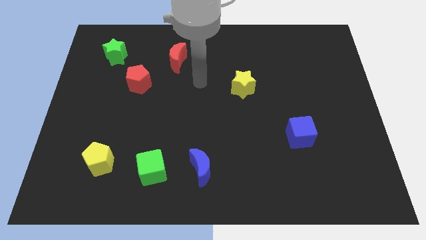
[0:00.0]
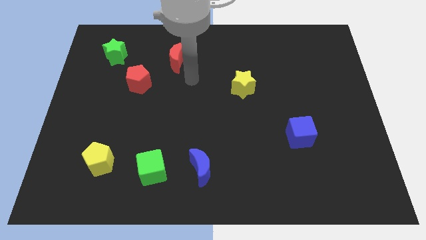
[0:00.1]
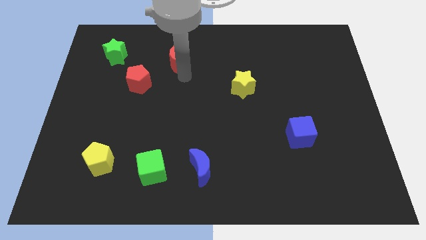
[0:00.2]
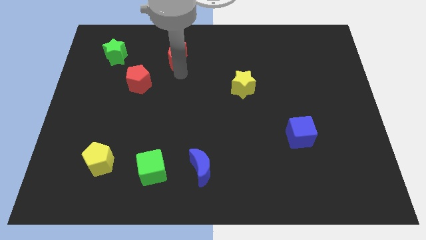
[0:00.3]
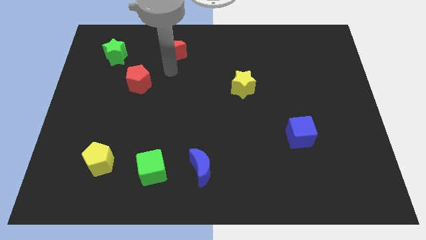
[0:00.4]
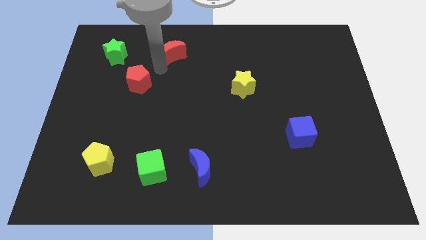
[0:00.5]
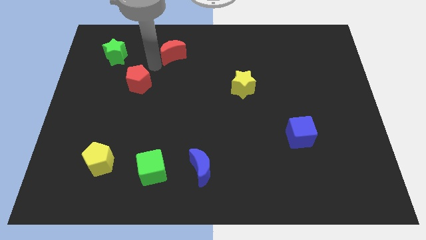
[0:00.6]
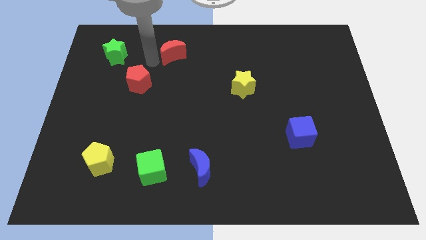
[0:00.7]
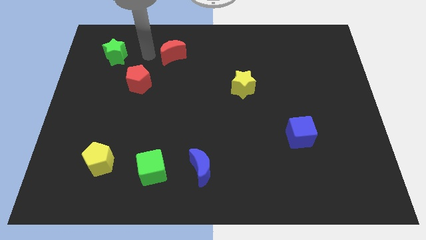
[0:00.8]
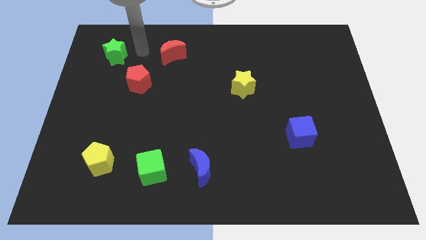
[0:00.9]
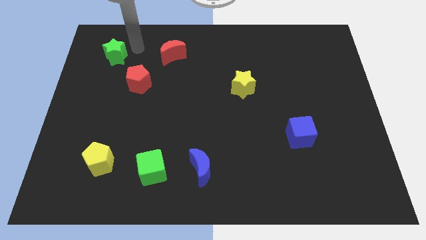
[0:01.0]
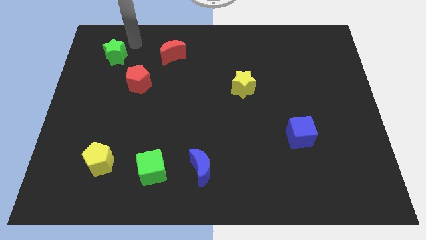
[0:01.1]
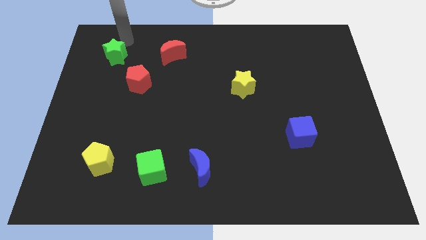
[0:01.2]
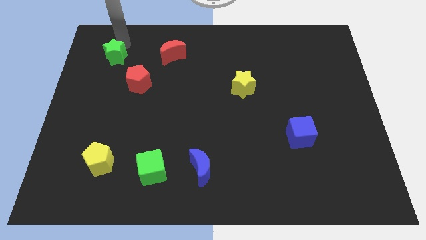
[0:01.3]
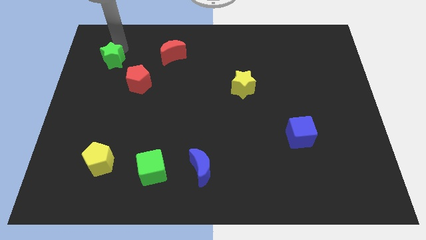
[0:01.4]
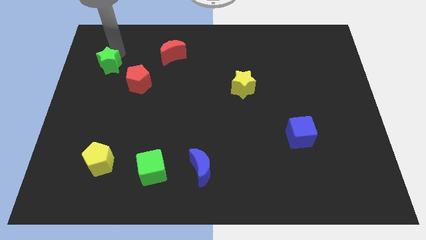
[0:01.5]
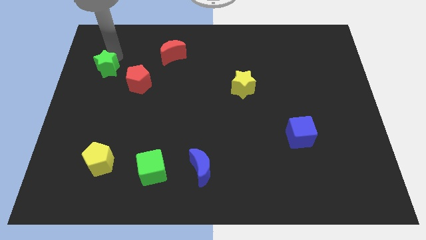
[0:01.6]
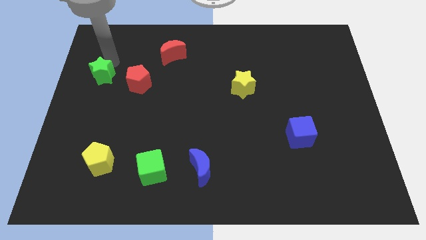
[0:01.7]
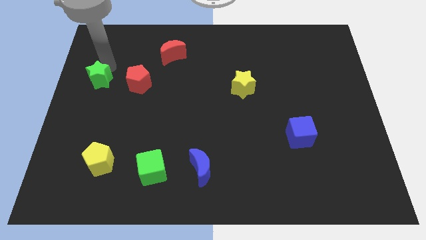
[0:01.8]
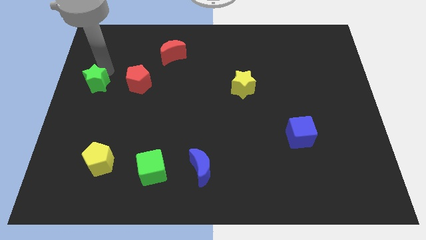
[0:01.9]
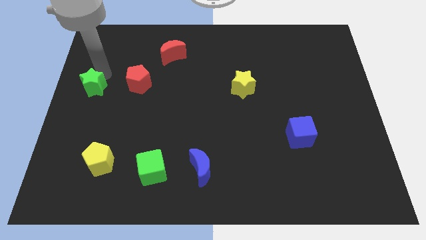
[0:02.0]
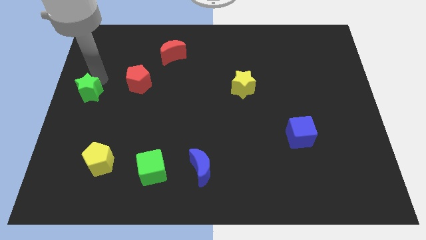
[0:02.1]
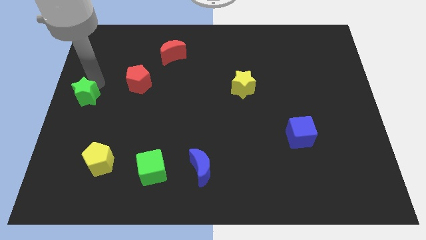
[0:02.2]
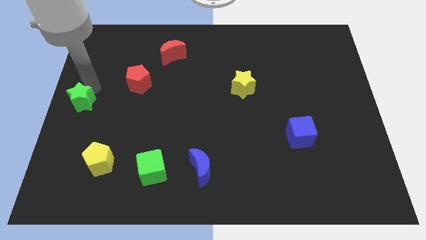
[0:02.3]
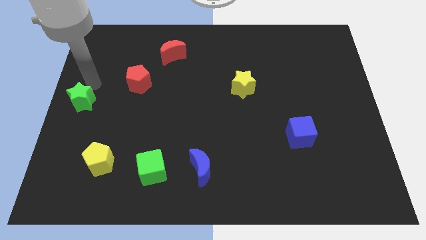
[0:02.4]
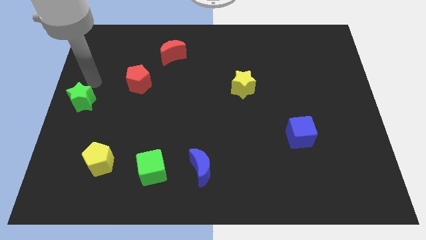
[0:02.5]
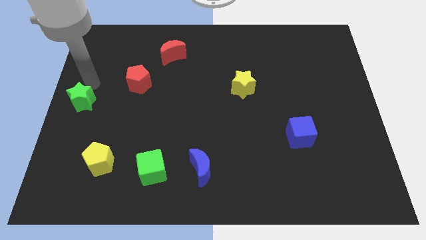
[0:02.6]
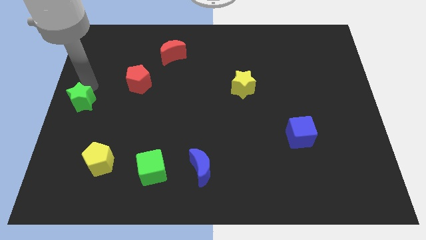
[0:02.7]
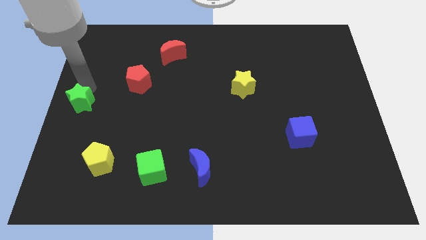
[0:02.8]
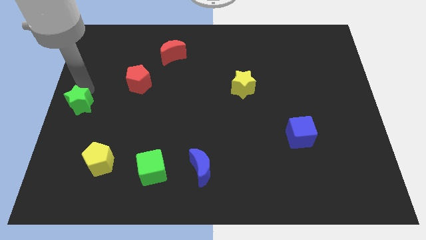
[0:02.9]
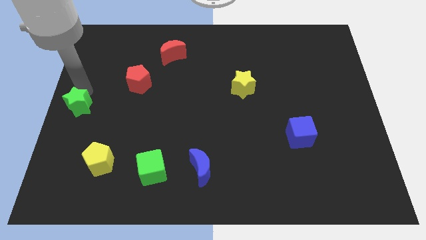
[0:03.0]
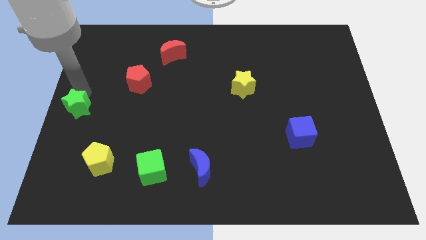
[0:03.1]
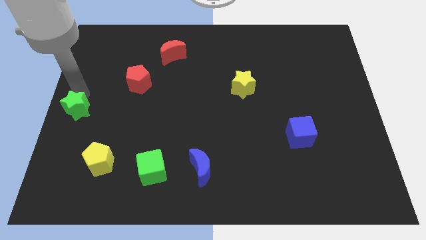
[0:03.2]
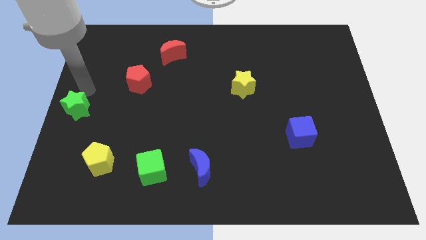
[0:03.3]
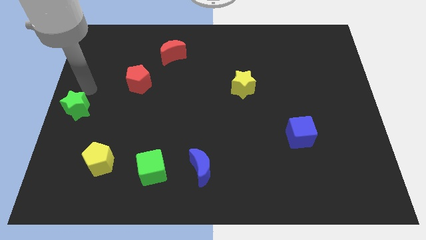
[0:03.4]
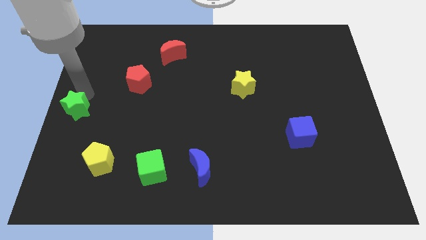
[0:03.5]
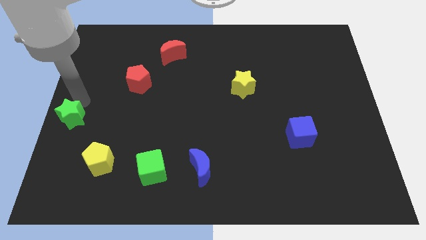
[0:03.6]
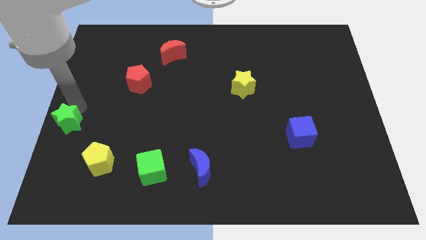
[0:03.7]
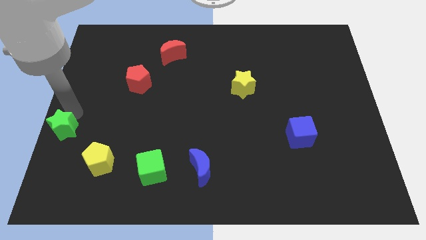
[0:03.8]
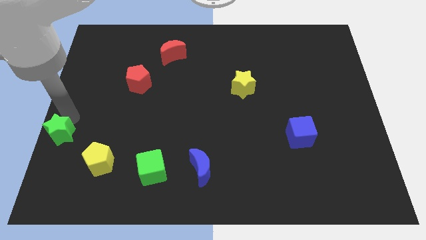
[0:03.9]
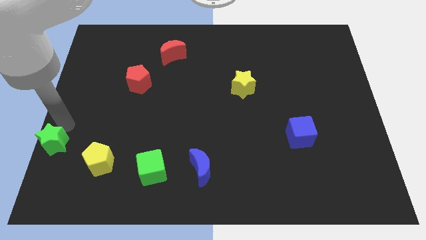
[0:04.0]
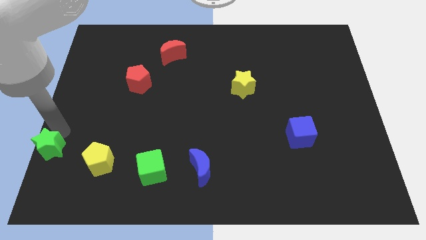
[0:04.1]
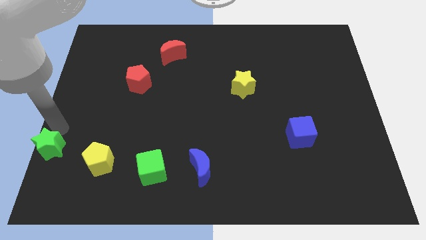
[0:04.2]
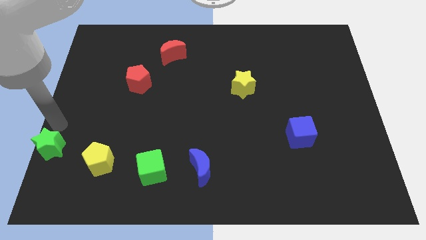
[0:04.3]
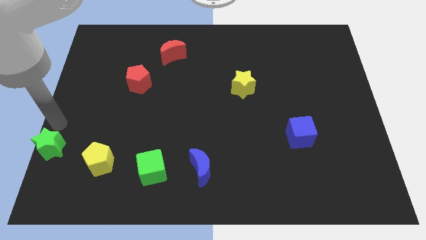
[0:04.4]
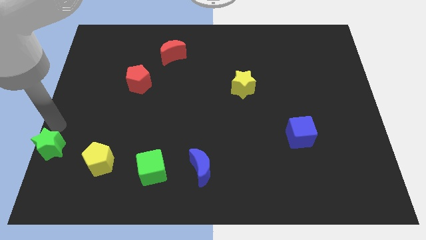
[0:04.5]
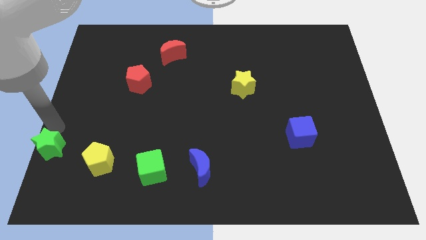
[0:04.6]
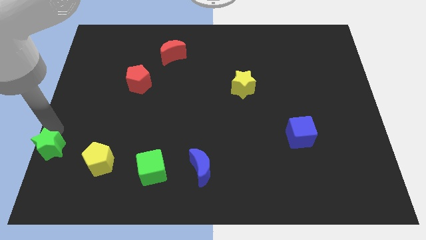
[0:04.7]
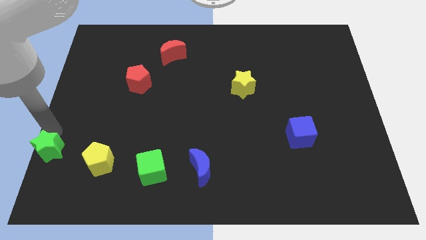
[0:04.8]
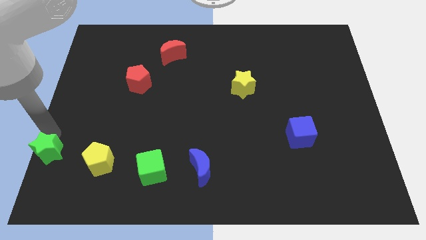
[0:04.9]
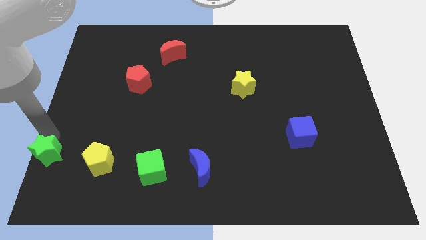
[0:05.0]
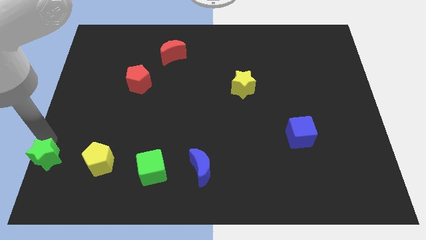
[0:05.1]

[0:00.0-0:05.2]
slide the green star to the bottom left corner

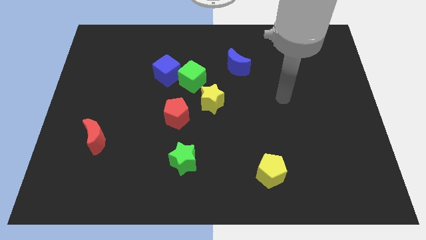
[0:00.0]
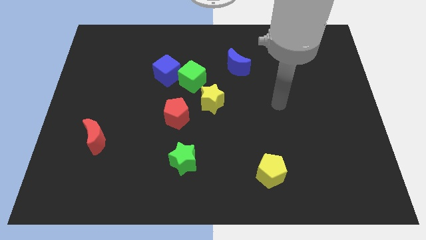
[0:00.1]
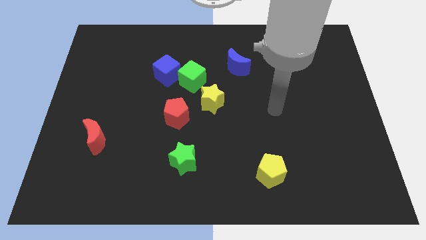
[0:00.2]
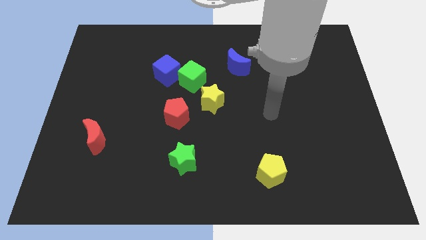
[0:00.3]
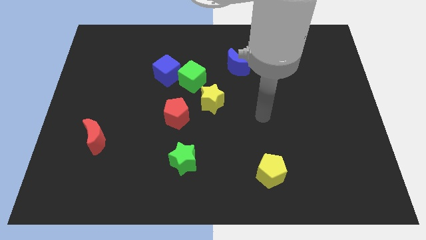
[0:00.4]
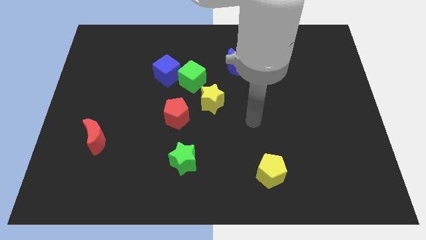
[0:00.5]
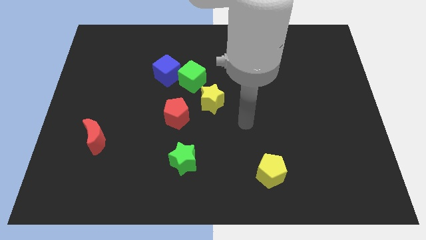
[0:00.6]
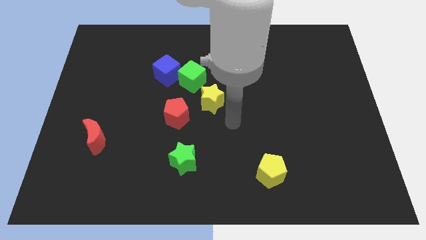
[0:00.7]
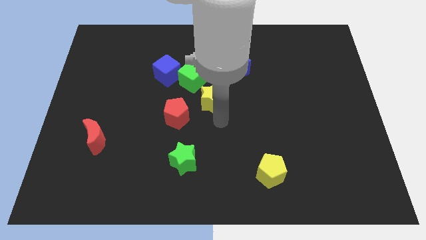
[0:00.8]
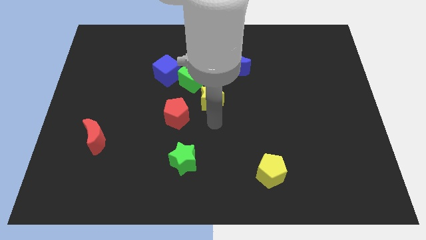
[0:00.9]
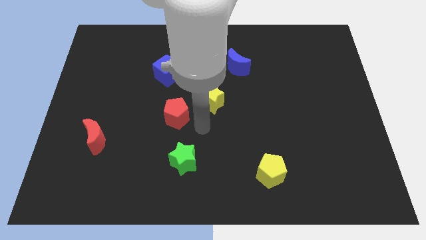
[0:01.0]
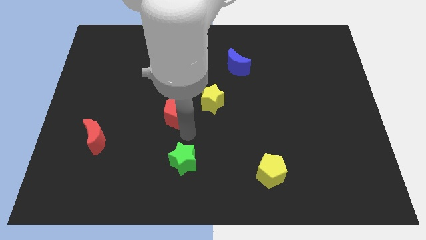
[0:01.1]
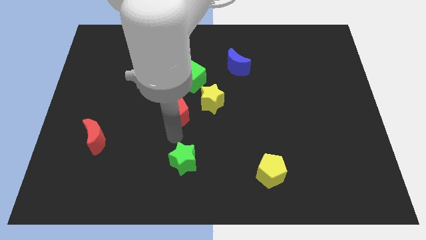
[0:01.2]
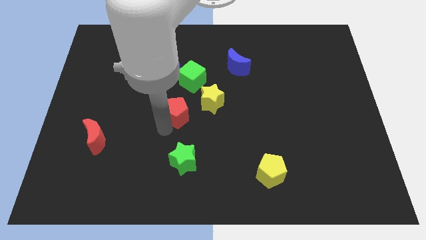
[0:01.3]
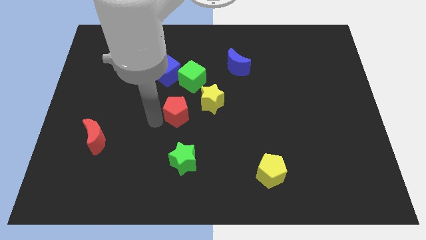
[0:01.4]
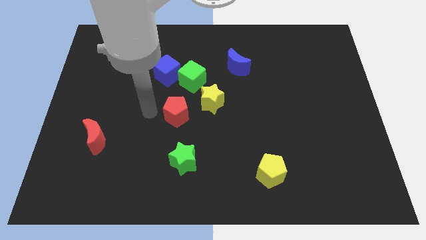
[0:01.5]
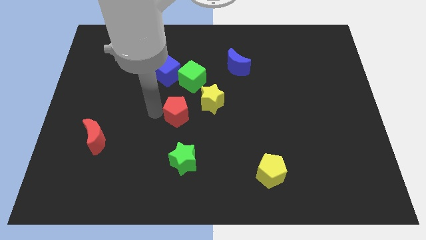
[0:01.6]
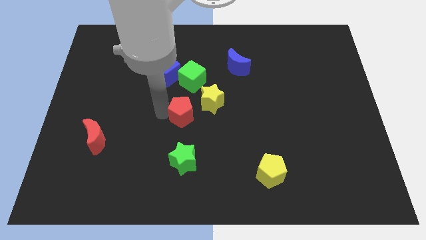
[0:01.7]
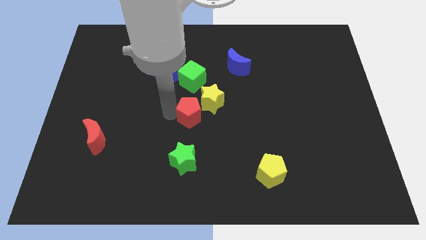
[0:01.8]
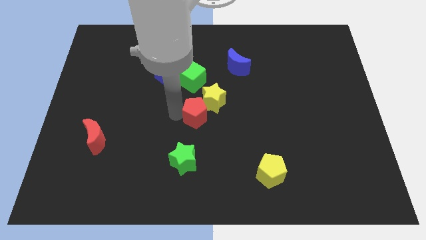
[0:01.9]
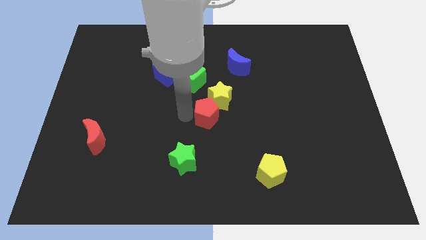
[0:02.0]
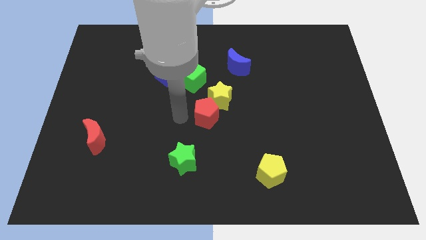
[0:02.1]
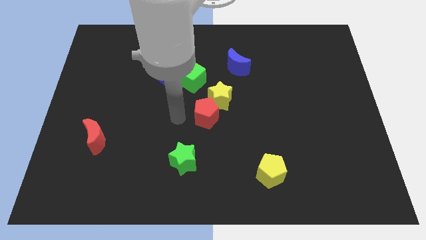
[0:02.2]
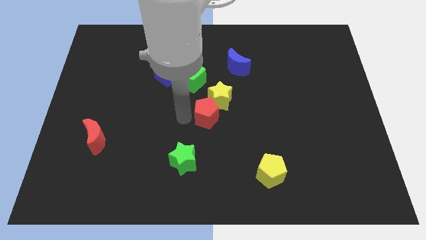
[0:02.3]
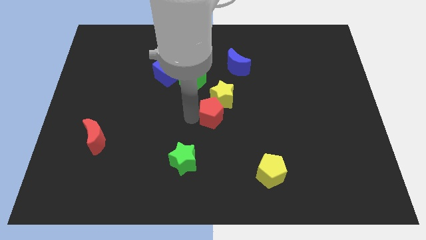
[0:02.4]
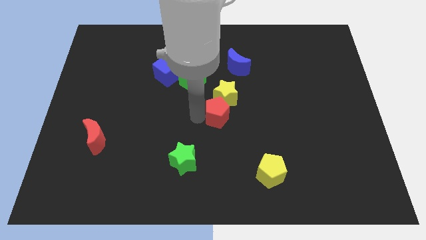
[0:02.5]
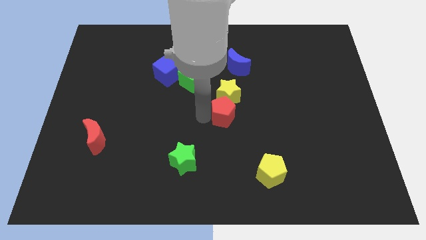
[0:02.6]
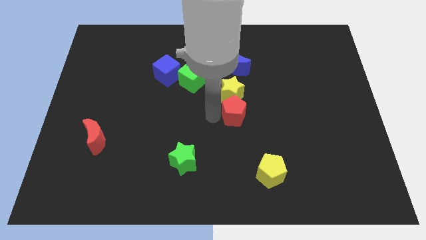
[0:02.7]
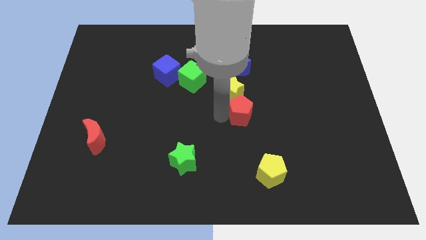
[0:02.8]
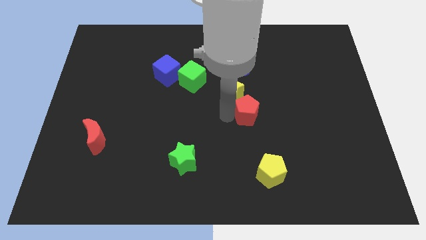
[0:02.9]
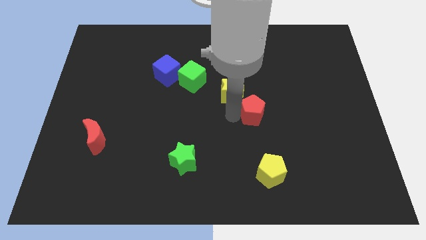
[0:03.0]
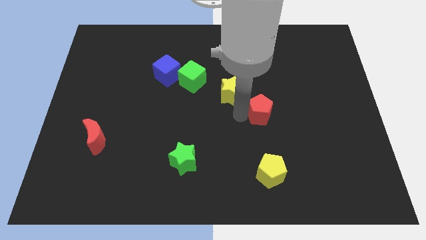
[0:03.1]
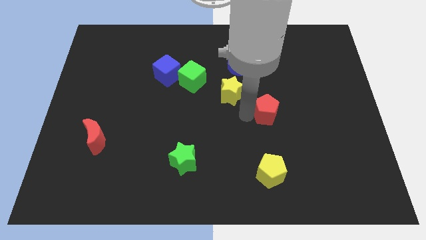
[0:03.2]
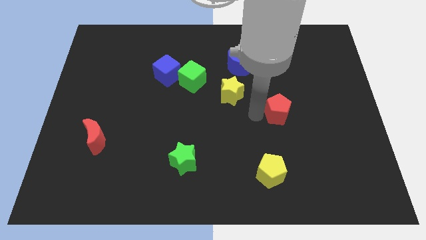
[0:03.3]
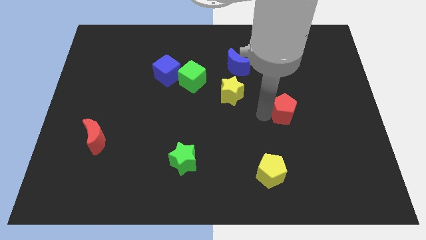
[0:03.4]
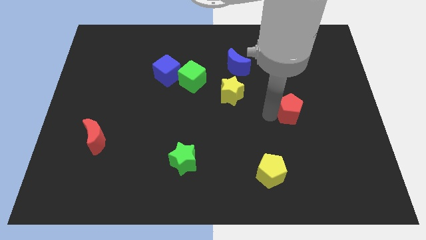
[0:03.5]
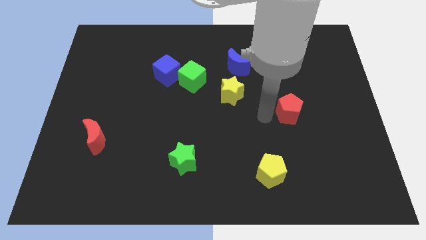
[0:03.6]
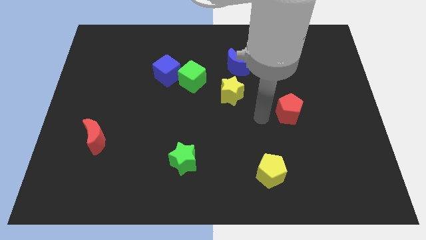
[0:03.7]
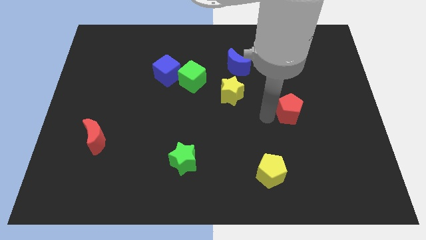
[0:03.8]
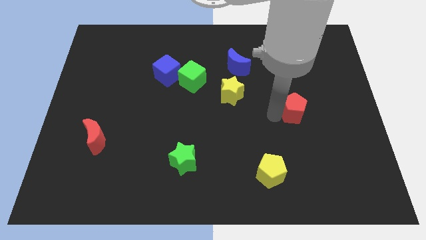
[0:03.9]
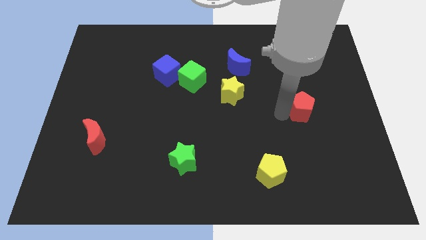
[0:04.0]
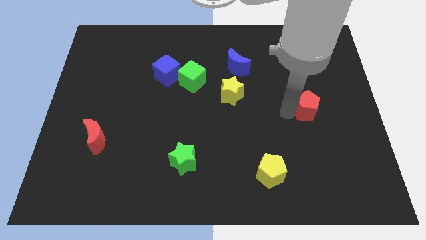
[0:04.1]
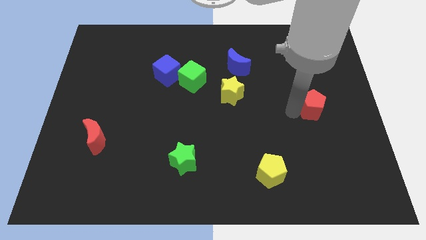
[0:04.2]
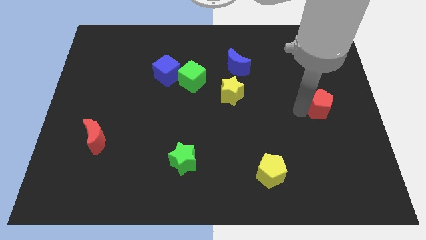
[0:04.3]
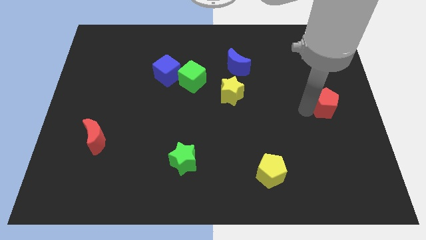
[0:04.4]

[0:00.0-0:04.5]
put the red pentagon to the right side of the board
